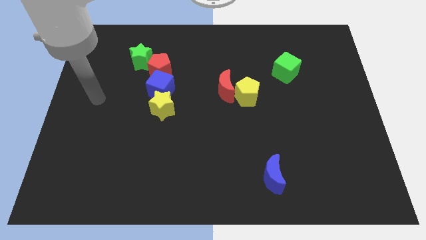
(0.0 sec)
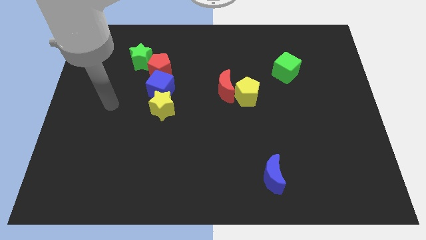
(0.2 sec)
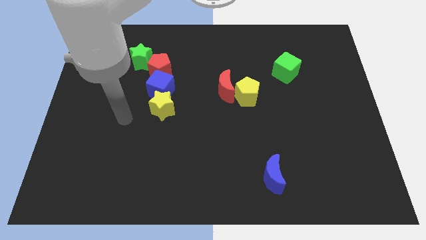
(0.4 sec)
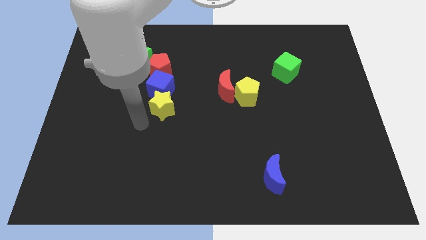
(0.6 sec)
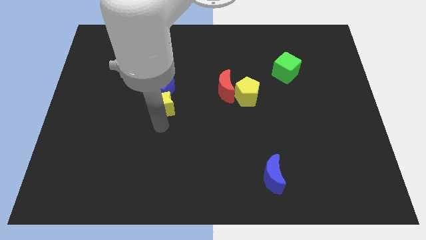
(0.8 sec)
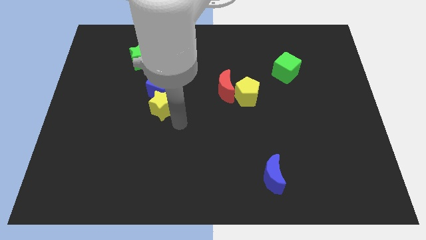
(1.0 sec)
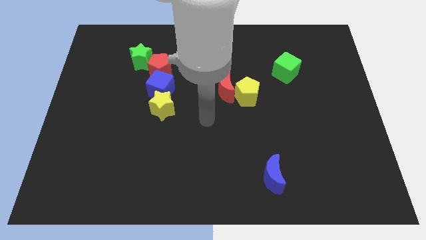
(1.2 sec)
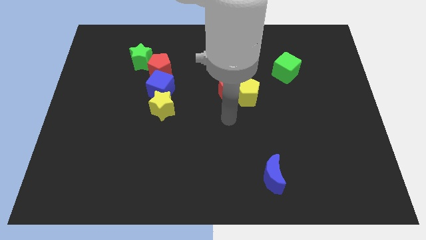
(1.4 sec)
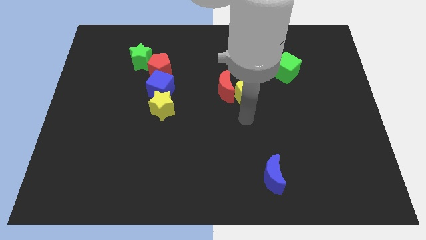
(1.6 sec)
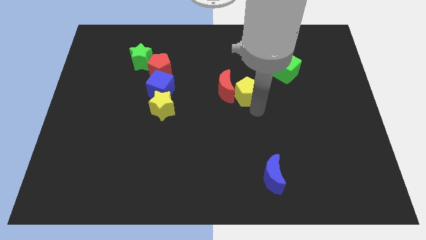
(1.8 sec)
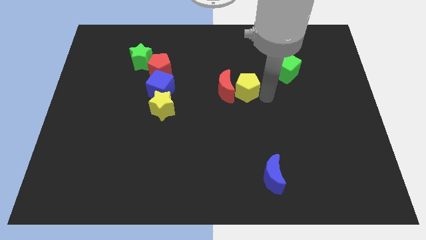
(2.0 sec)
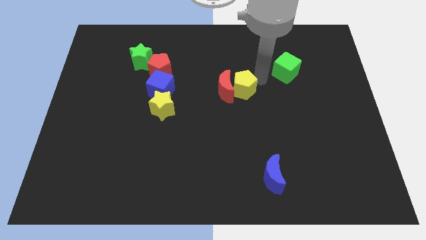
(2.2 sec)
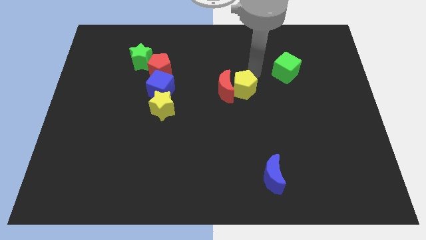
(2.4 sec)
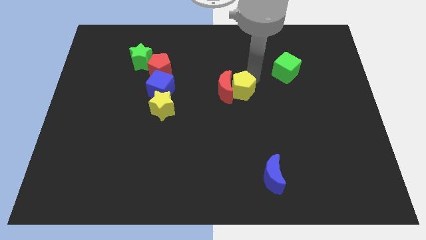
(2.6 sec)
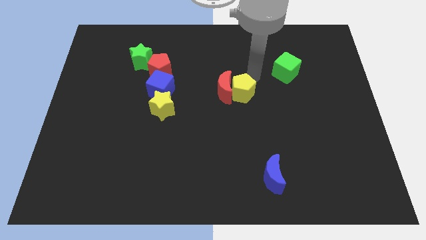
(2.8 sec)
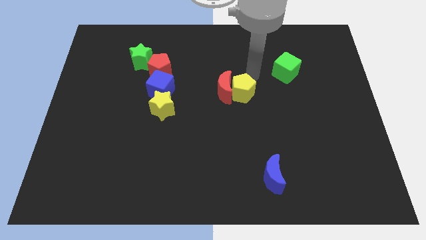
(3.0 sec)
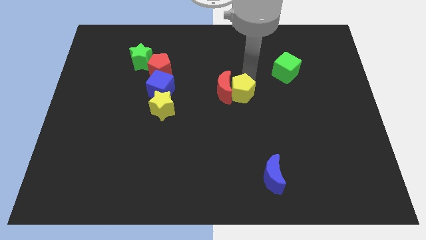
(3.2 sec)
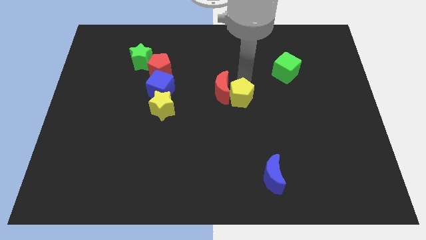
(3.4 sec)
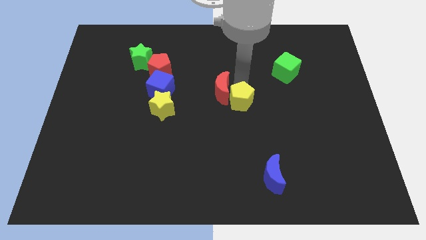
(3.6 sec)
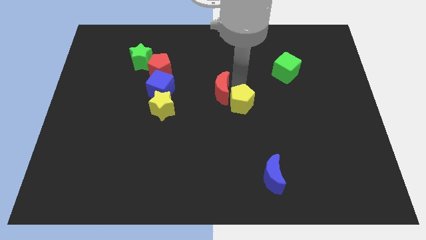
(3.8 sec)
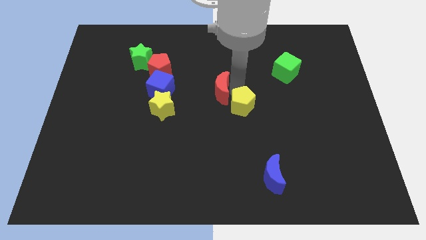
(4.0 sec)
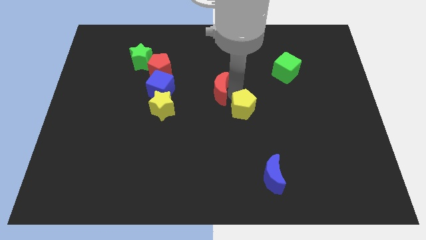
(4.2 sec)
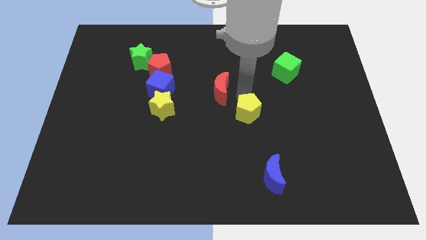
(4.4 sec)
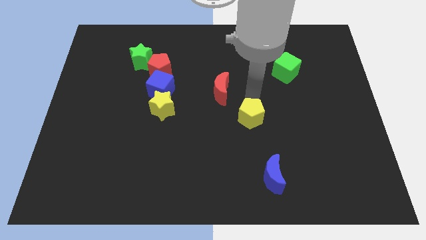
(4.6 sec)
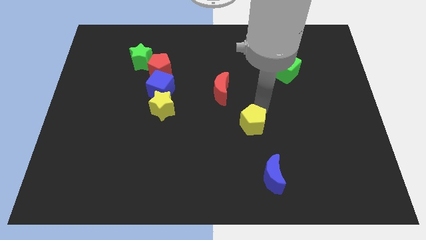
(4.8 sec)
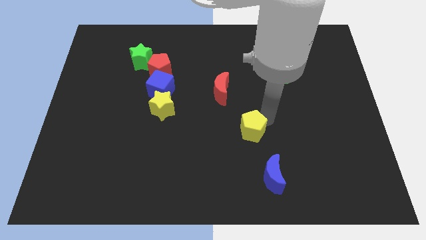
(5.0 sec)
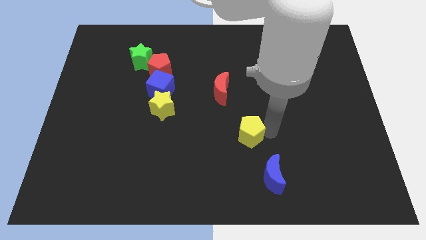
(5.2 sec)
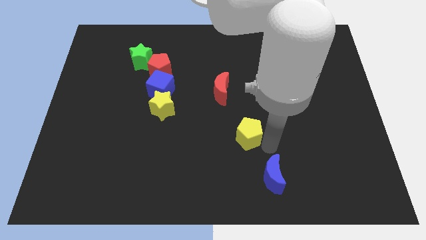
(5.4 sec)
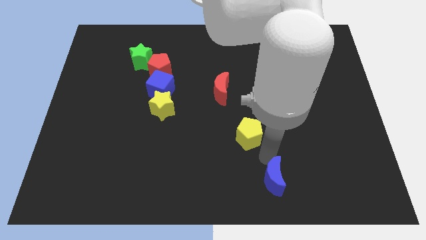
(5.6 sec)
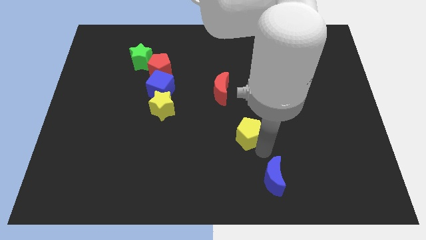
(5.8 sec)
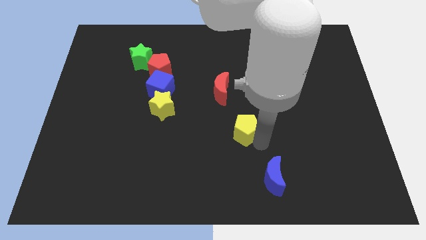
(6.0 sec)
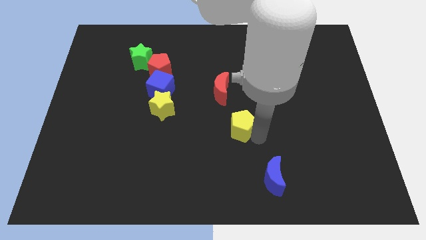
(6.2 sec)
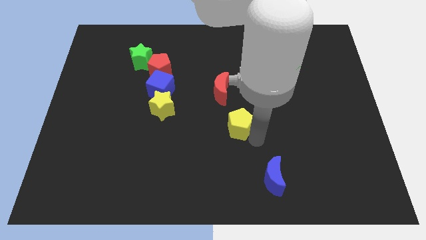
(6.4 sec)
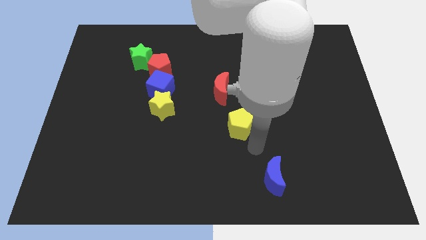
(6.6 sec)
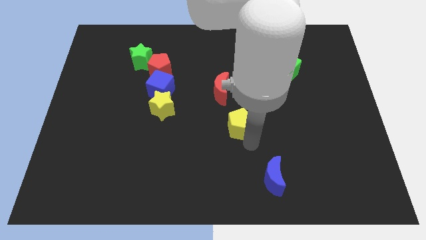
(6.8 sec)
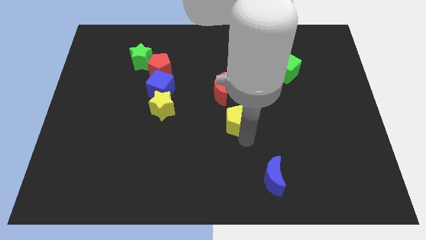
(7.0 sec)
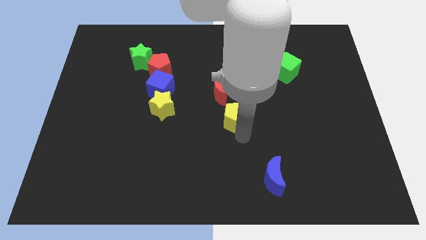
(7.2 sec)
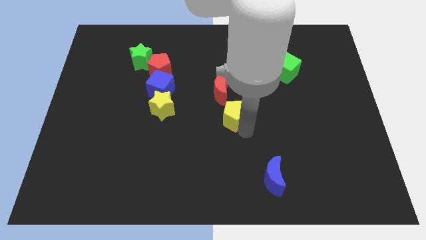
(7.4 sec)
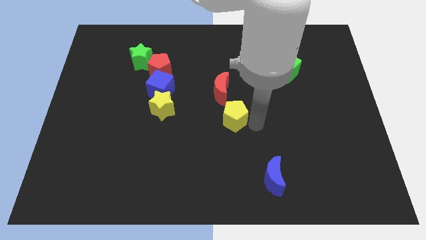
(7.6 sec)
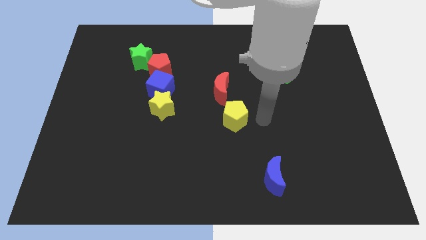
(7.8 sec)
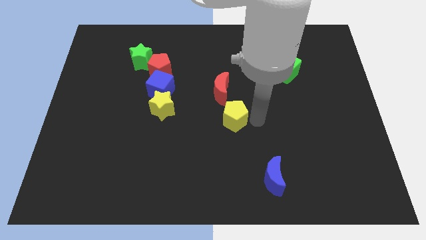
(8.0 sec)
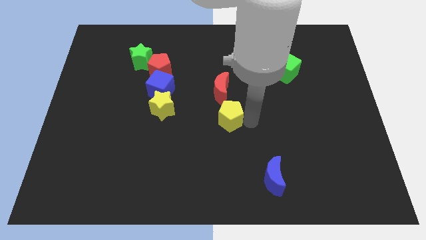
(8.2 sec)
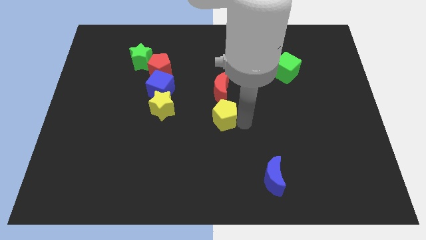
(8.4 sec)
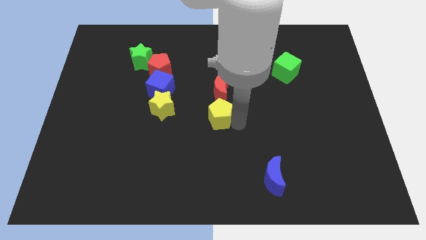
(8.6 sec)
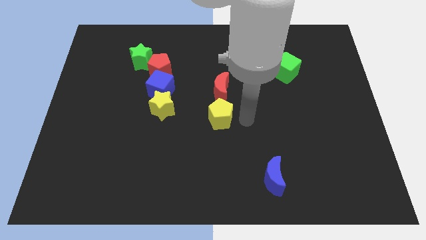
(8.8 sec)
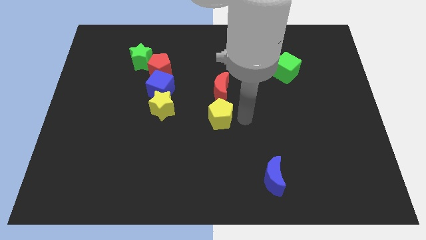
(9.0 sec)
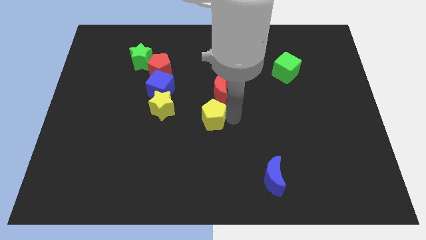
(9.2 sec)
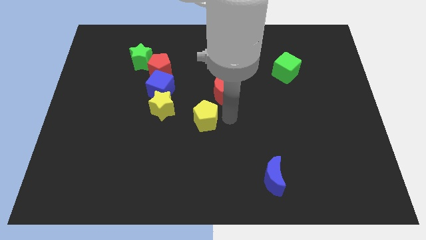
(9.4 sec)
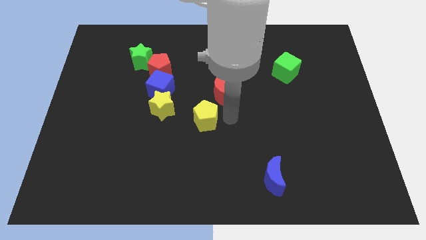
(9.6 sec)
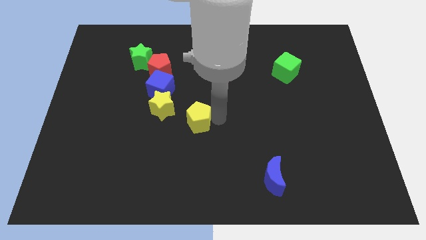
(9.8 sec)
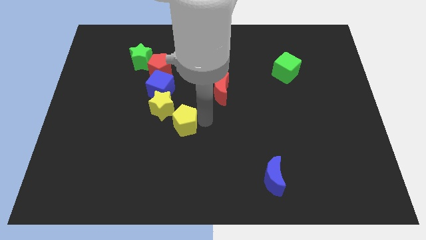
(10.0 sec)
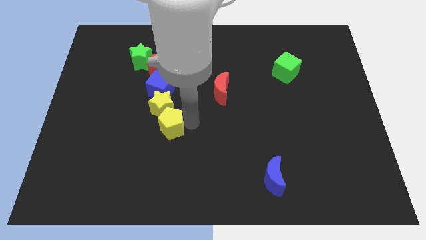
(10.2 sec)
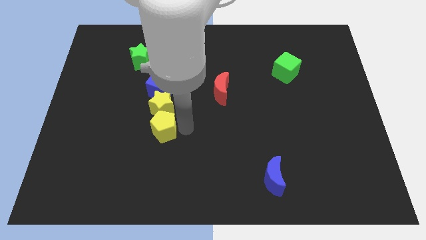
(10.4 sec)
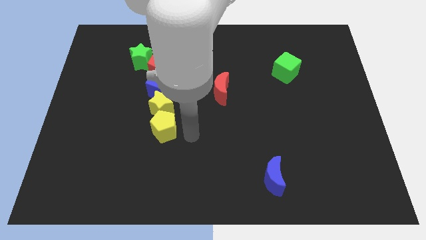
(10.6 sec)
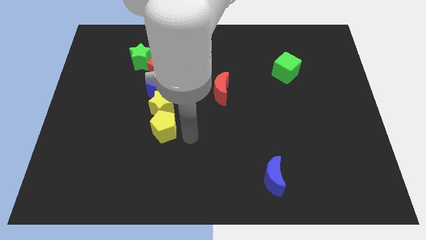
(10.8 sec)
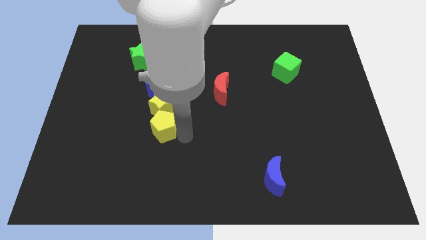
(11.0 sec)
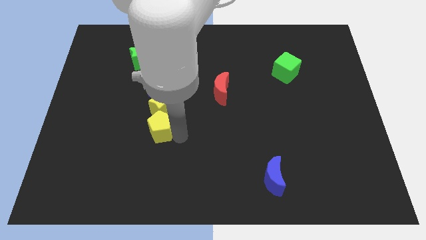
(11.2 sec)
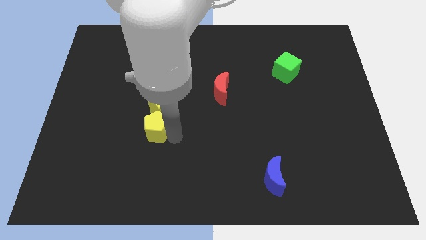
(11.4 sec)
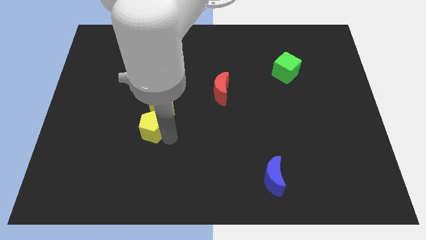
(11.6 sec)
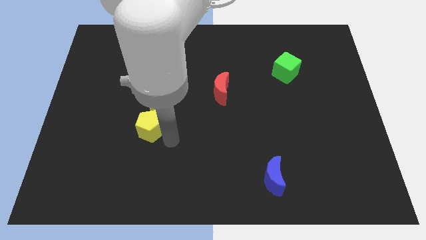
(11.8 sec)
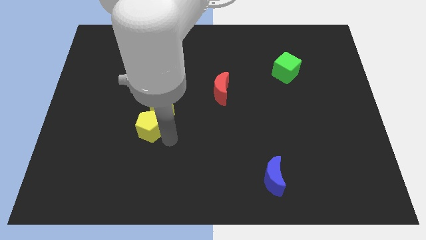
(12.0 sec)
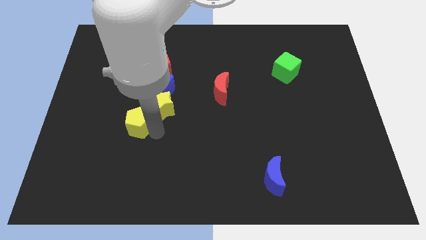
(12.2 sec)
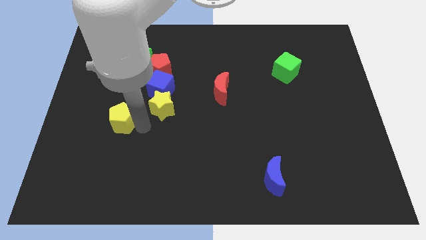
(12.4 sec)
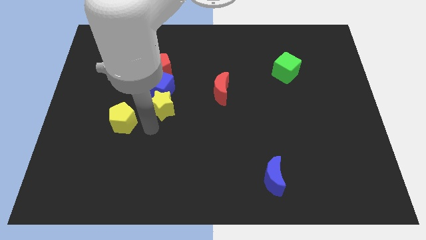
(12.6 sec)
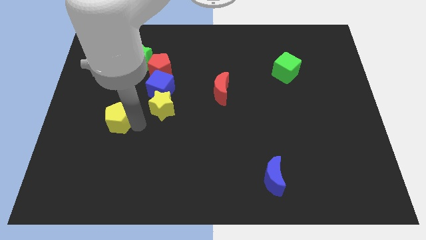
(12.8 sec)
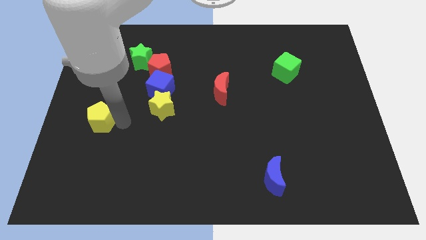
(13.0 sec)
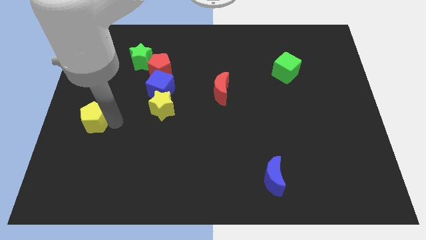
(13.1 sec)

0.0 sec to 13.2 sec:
slide the yellow pentagon to the left side
